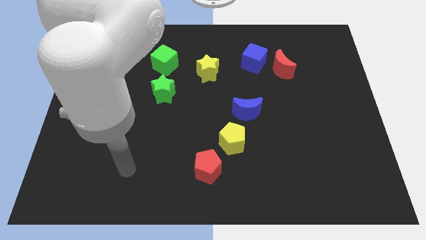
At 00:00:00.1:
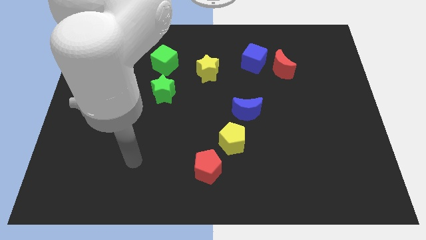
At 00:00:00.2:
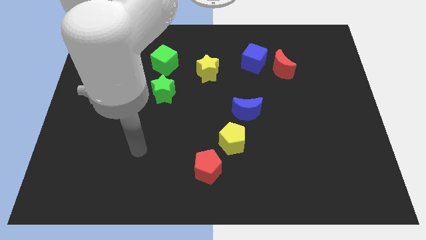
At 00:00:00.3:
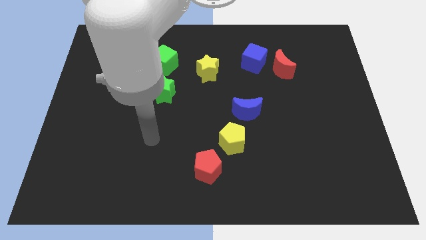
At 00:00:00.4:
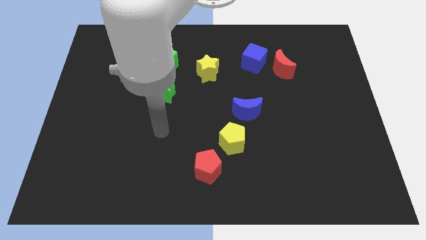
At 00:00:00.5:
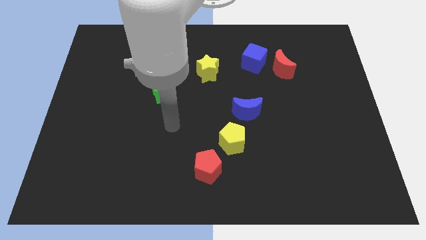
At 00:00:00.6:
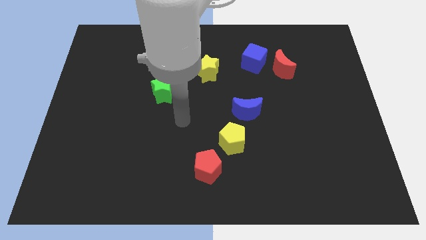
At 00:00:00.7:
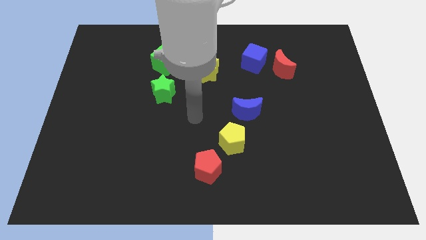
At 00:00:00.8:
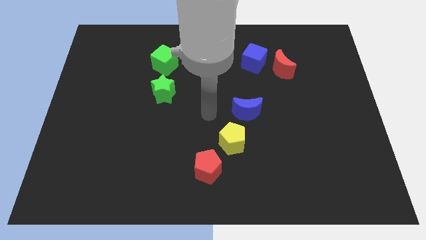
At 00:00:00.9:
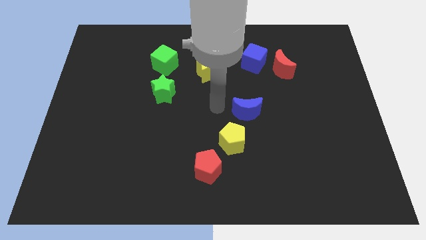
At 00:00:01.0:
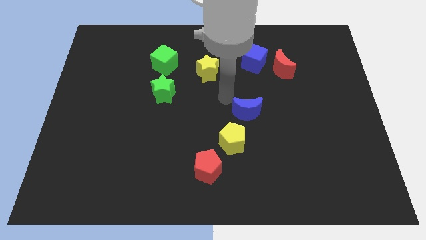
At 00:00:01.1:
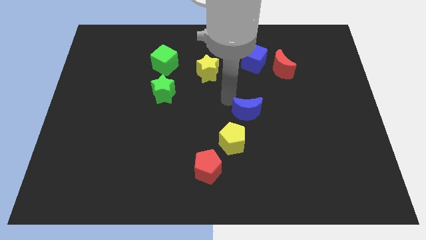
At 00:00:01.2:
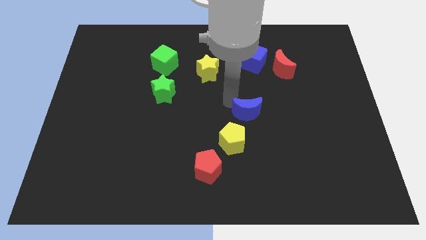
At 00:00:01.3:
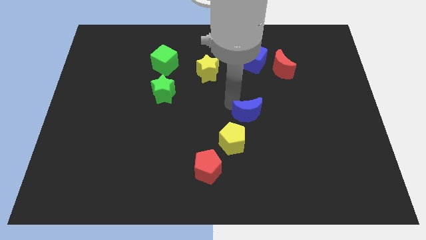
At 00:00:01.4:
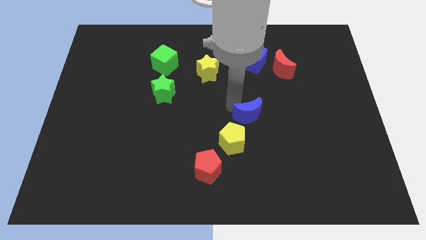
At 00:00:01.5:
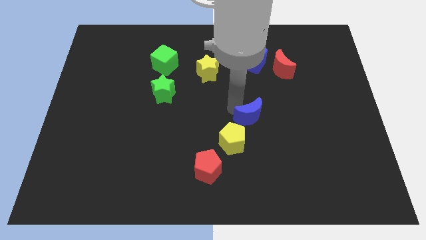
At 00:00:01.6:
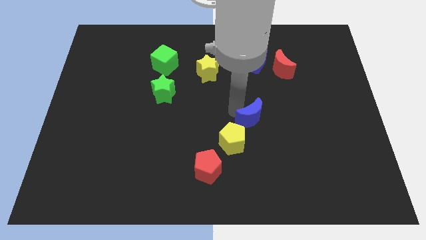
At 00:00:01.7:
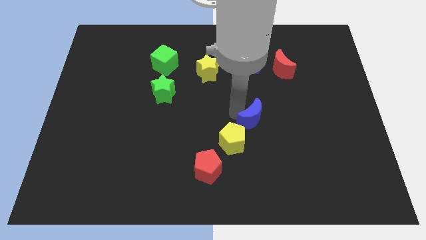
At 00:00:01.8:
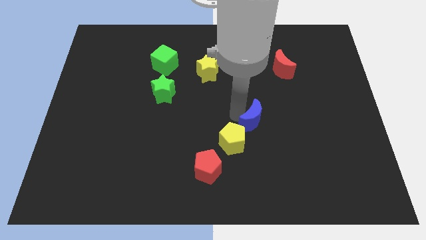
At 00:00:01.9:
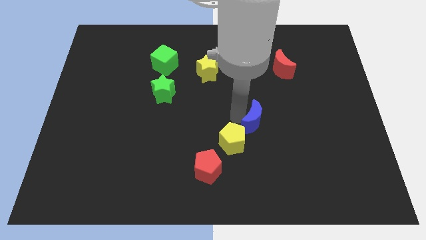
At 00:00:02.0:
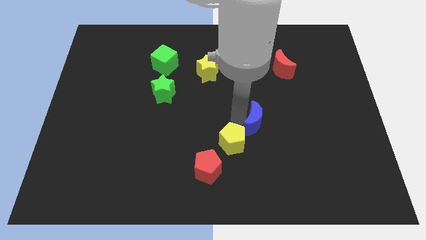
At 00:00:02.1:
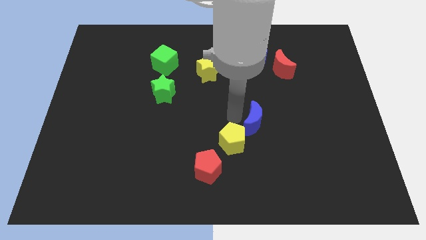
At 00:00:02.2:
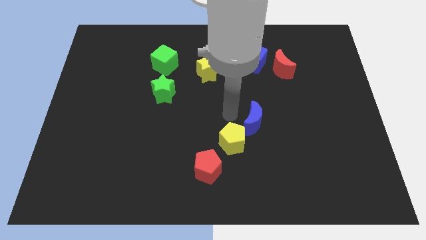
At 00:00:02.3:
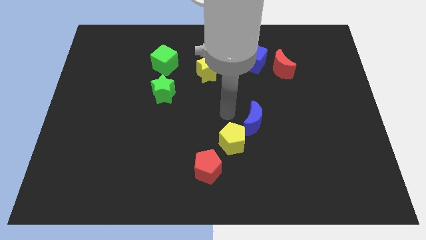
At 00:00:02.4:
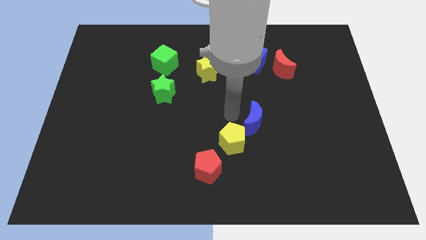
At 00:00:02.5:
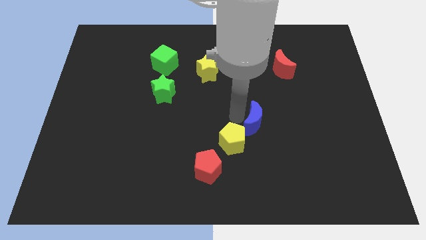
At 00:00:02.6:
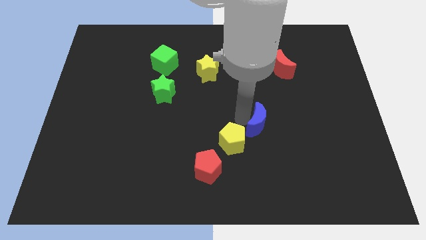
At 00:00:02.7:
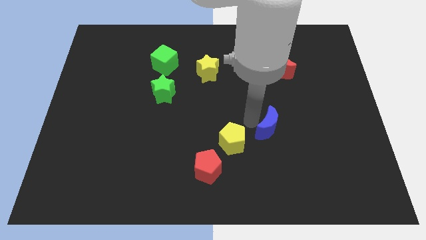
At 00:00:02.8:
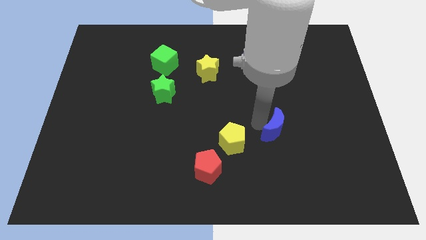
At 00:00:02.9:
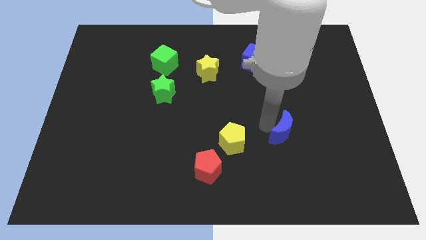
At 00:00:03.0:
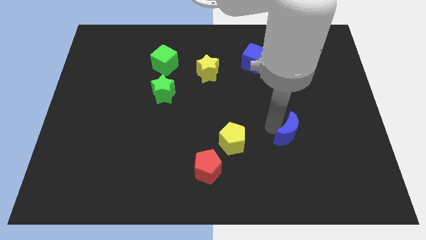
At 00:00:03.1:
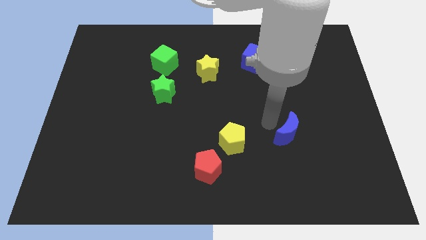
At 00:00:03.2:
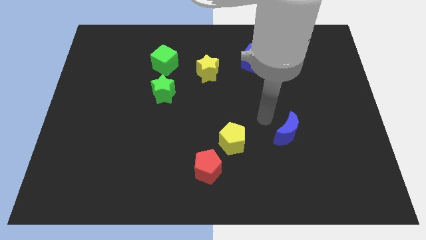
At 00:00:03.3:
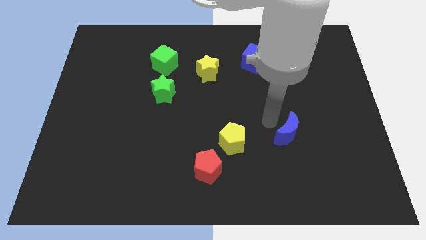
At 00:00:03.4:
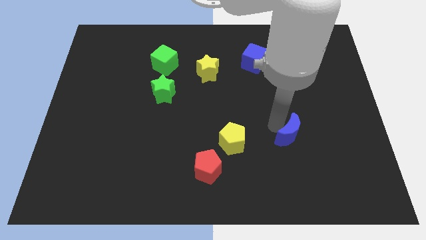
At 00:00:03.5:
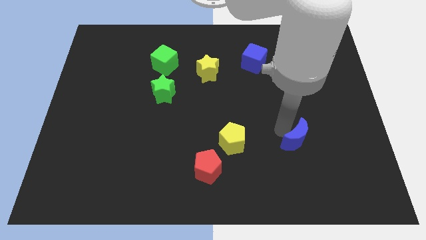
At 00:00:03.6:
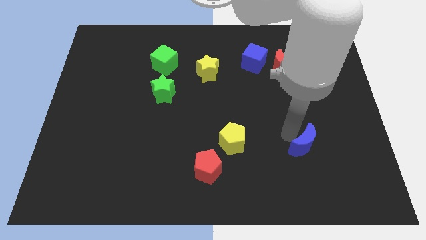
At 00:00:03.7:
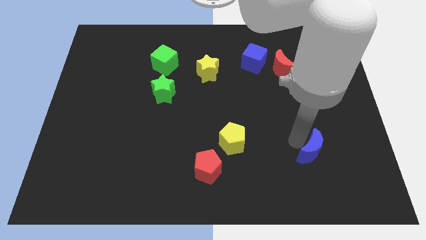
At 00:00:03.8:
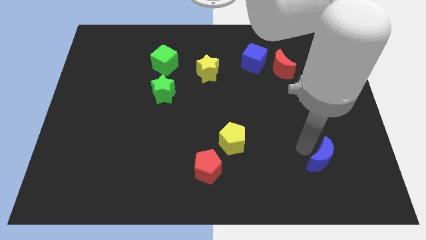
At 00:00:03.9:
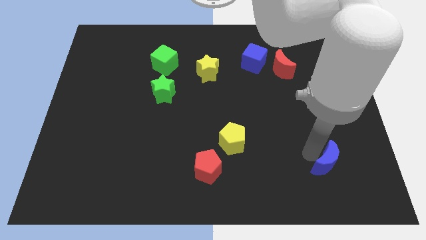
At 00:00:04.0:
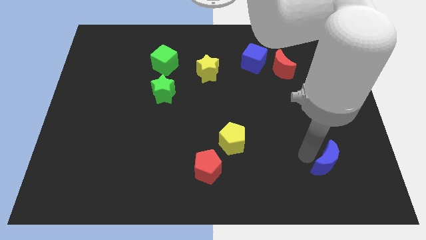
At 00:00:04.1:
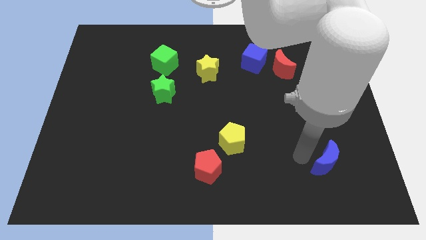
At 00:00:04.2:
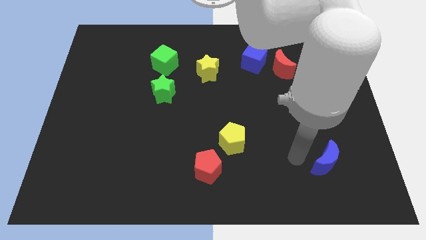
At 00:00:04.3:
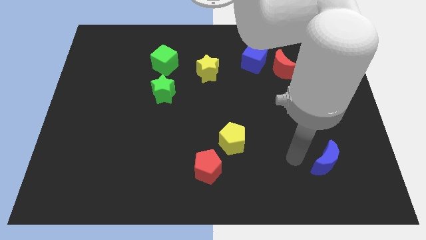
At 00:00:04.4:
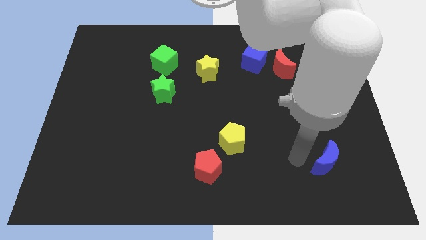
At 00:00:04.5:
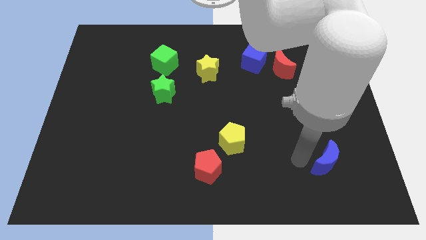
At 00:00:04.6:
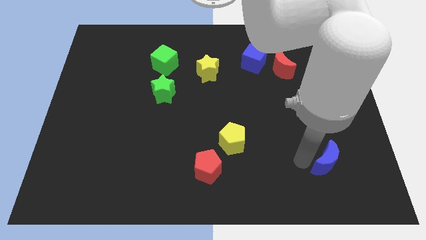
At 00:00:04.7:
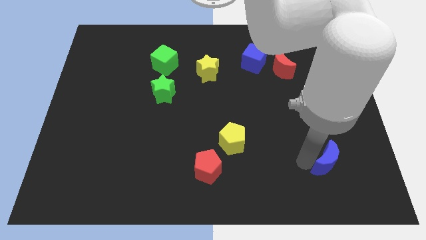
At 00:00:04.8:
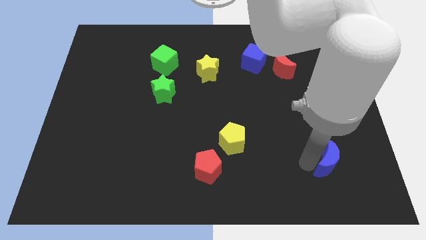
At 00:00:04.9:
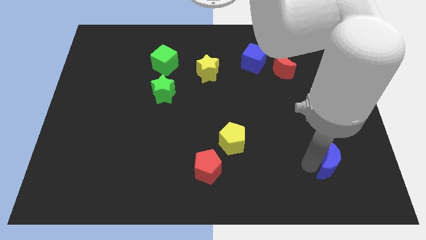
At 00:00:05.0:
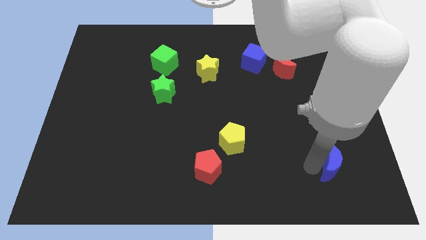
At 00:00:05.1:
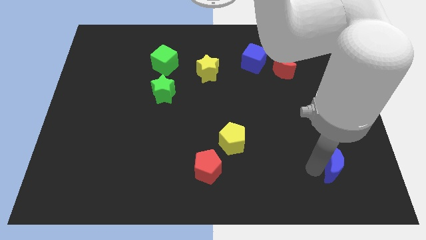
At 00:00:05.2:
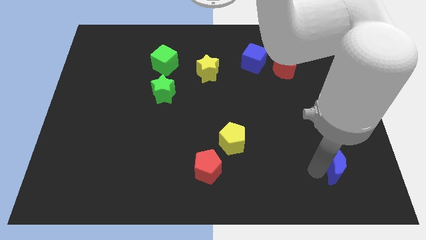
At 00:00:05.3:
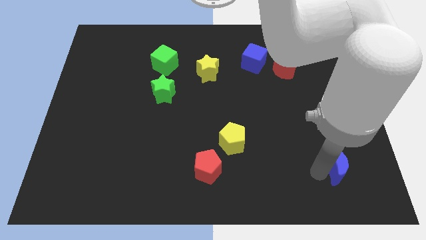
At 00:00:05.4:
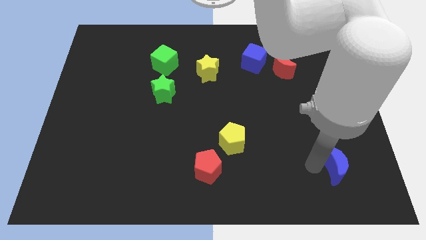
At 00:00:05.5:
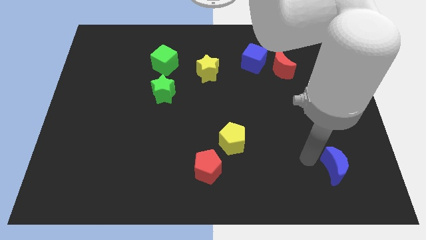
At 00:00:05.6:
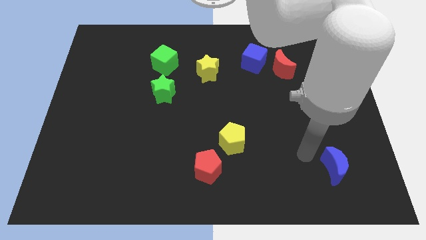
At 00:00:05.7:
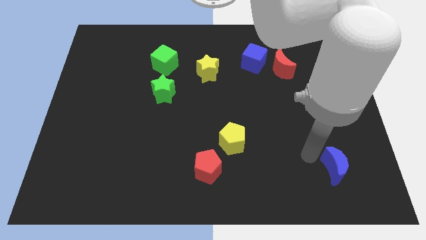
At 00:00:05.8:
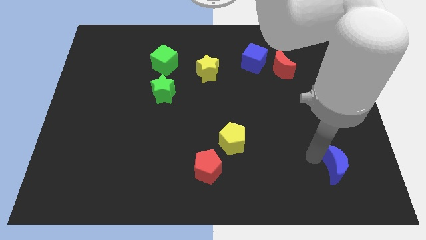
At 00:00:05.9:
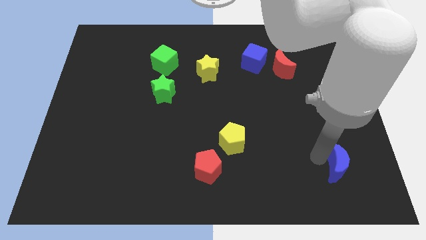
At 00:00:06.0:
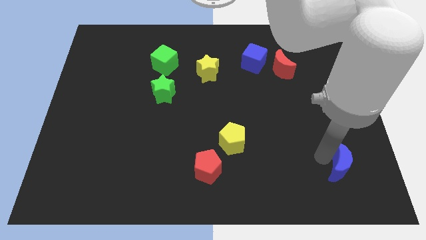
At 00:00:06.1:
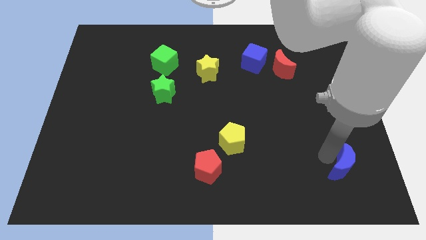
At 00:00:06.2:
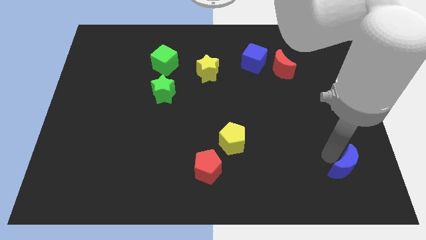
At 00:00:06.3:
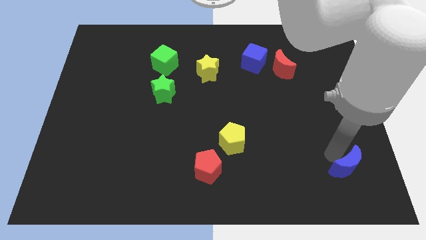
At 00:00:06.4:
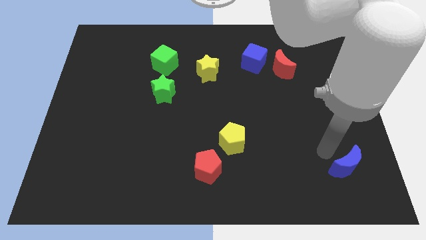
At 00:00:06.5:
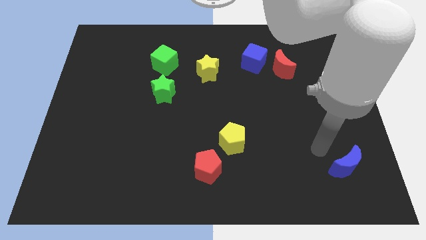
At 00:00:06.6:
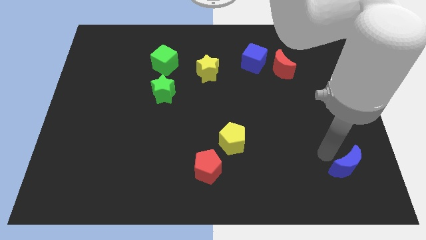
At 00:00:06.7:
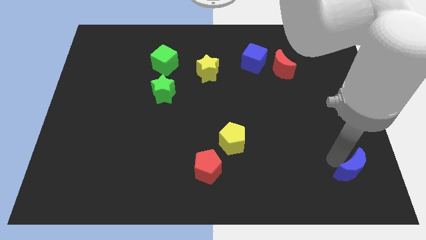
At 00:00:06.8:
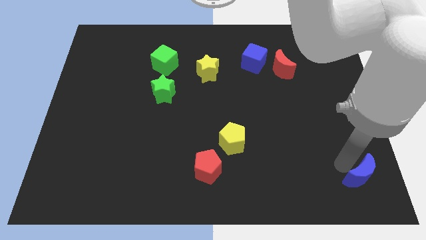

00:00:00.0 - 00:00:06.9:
move the blue moon to the bottom right
